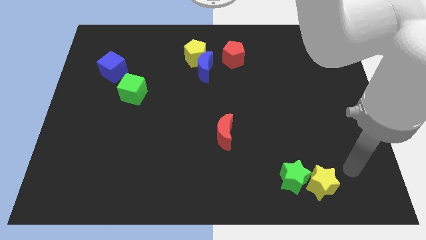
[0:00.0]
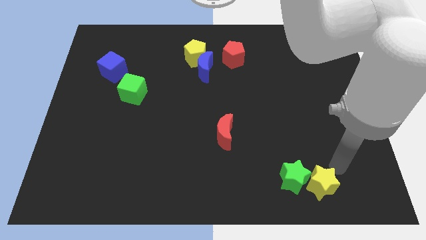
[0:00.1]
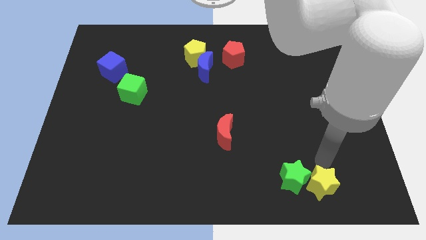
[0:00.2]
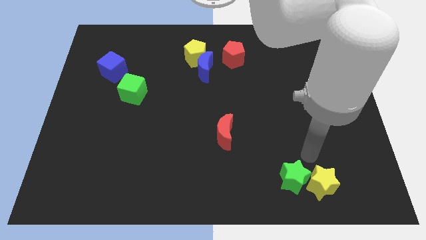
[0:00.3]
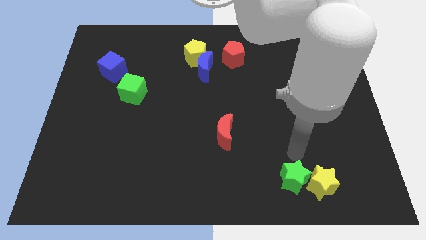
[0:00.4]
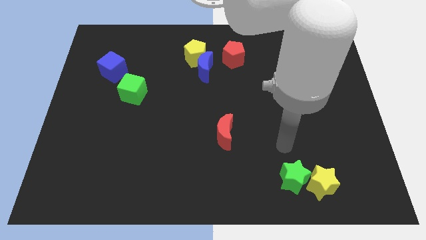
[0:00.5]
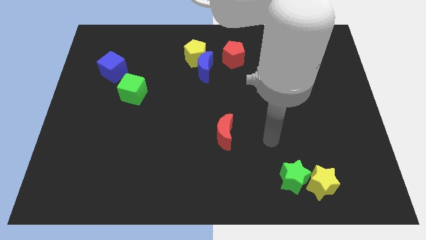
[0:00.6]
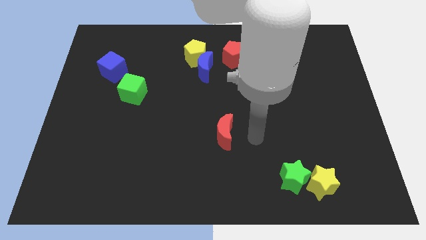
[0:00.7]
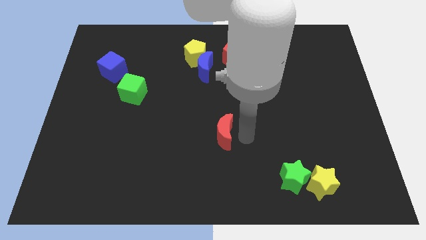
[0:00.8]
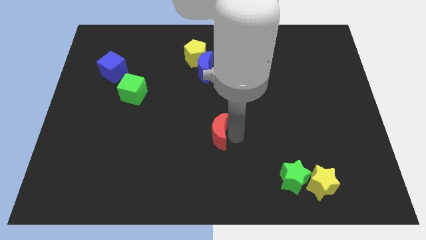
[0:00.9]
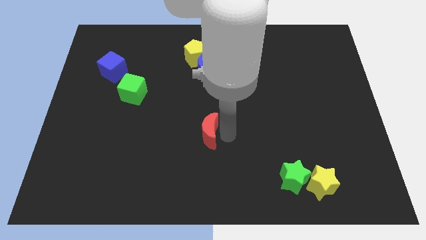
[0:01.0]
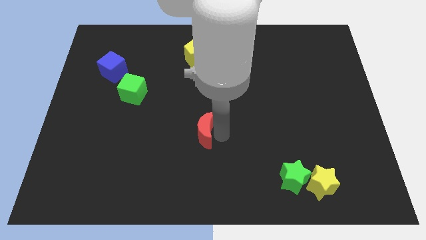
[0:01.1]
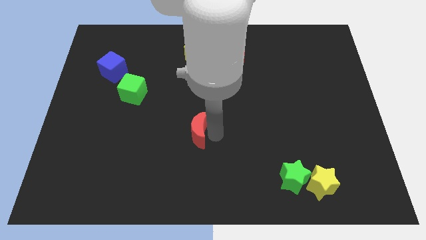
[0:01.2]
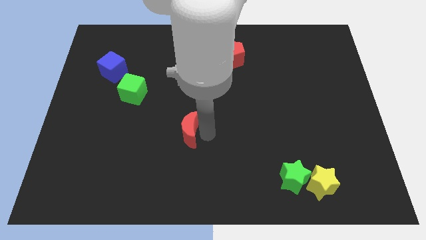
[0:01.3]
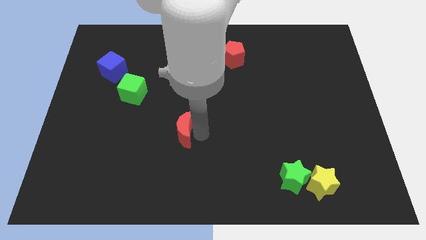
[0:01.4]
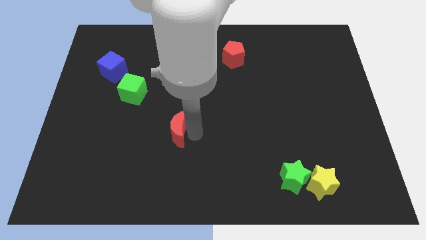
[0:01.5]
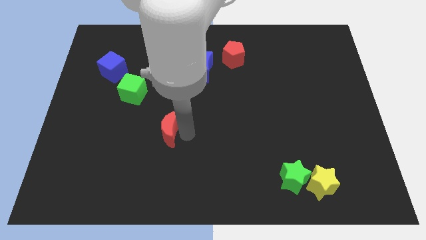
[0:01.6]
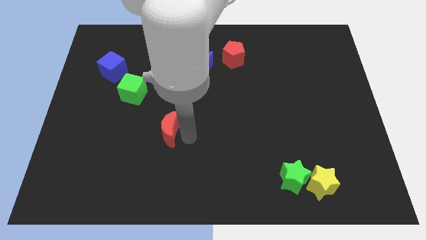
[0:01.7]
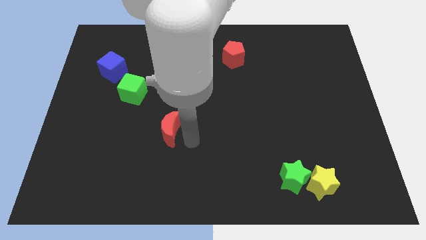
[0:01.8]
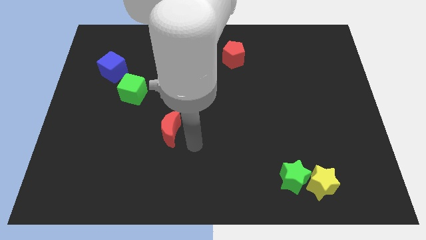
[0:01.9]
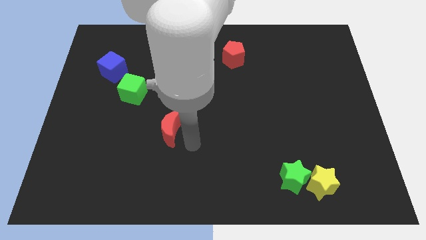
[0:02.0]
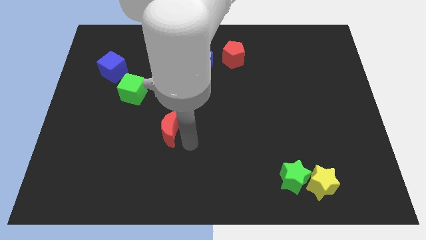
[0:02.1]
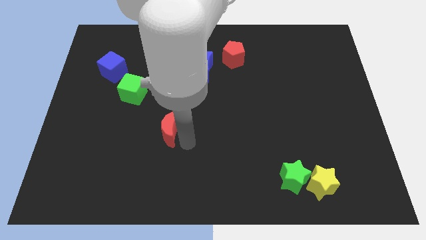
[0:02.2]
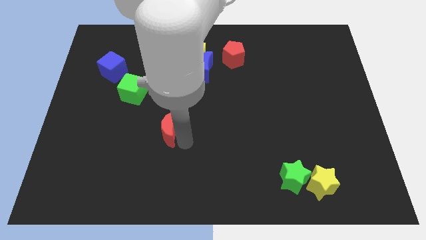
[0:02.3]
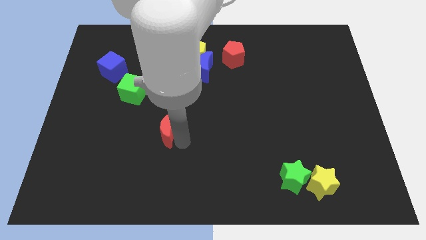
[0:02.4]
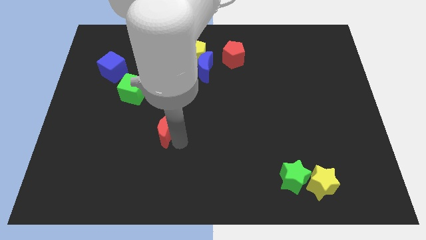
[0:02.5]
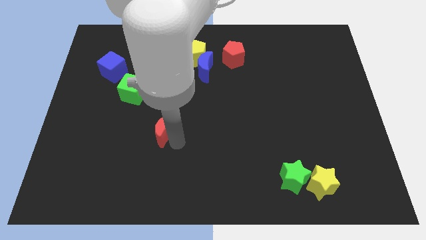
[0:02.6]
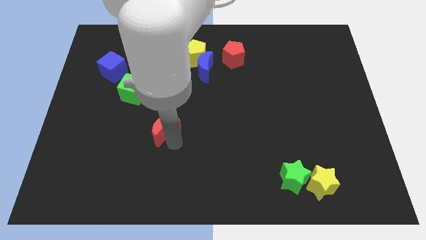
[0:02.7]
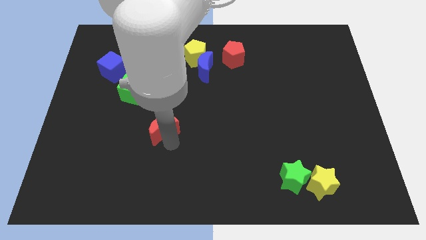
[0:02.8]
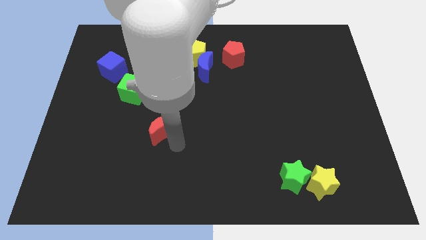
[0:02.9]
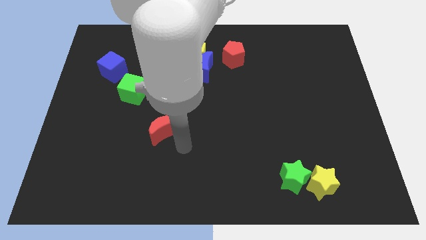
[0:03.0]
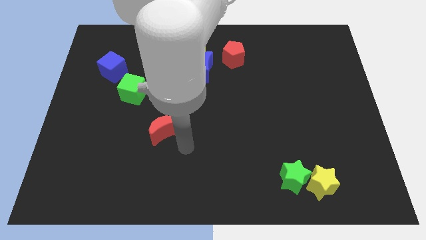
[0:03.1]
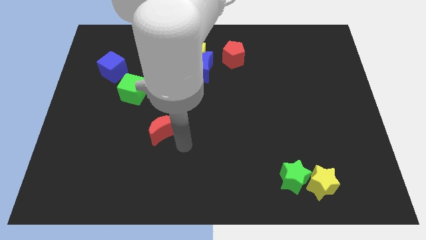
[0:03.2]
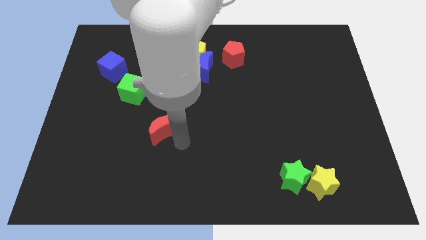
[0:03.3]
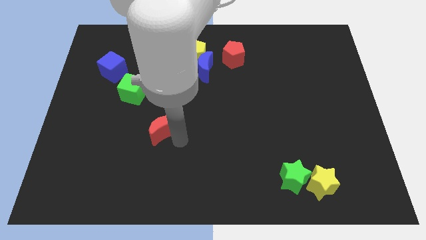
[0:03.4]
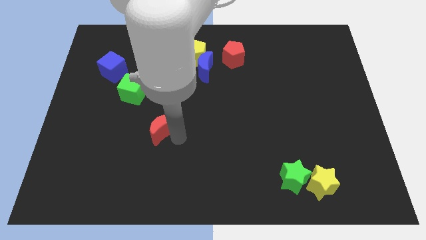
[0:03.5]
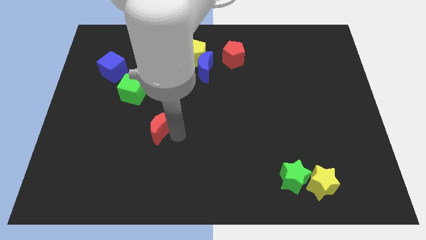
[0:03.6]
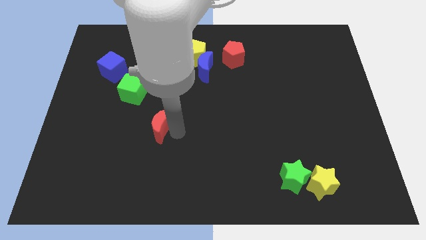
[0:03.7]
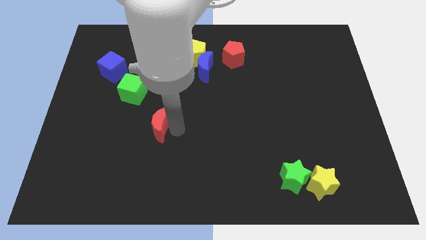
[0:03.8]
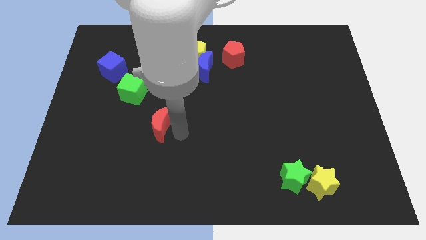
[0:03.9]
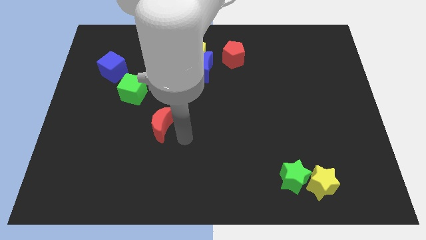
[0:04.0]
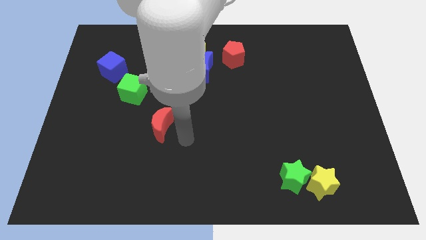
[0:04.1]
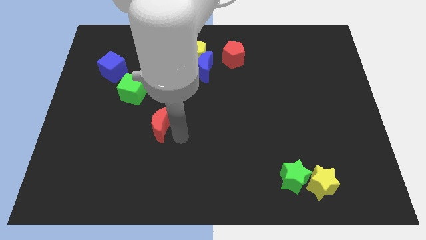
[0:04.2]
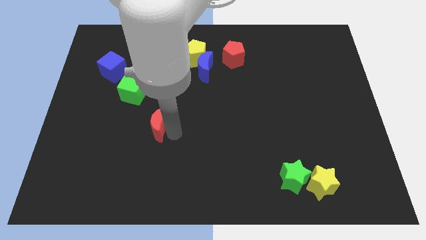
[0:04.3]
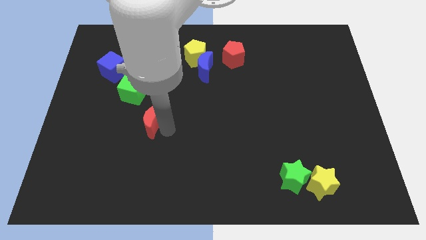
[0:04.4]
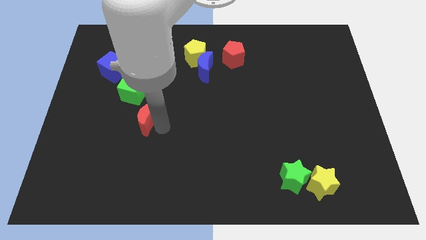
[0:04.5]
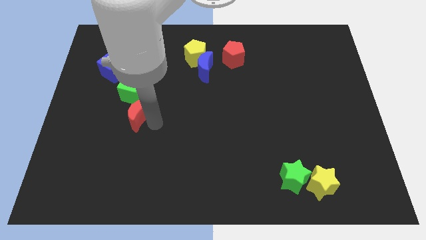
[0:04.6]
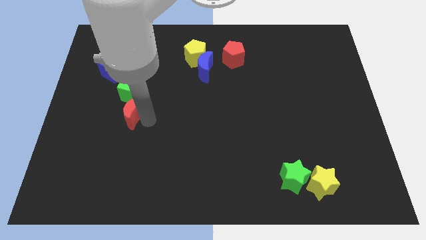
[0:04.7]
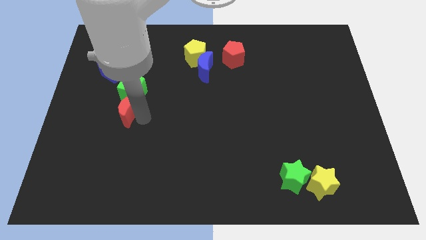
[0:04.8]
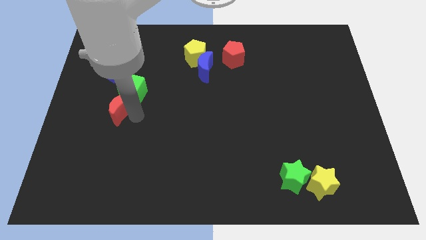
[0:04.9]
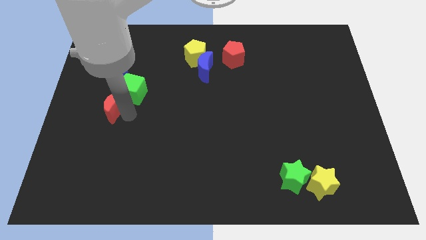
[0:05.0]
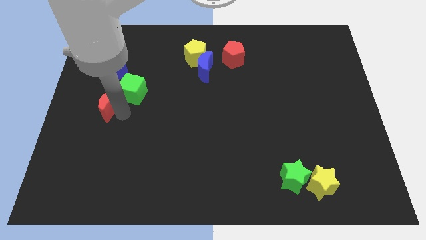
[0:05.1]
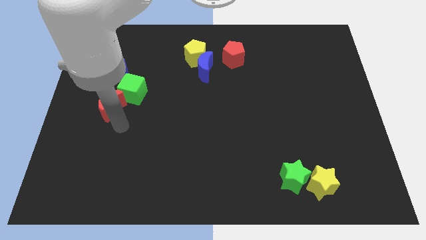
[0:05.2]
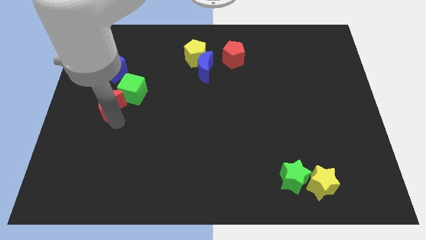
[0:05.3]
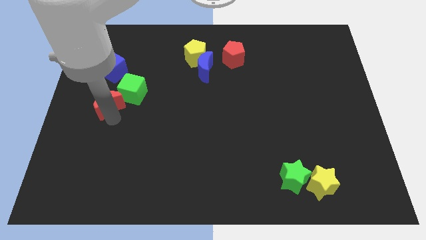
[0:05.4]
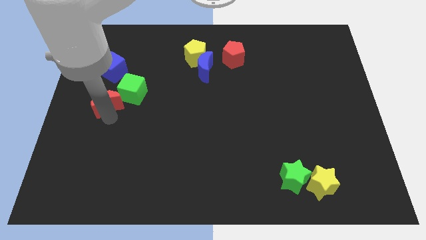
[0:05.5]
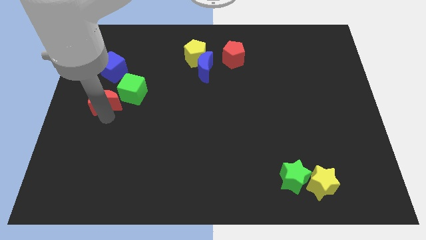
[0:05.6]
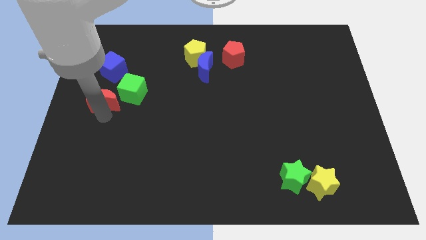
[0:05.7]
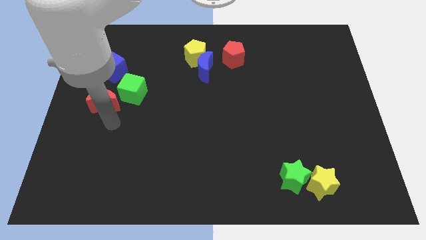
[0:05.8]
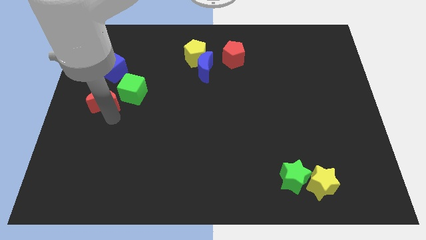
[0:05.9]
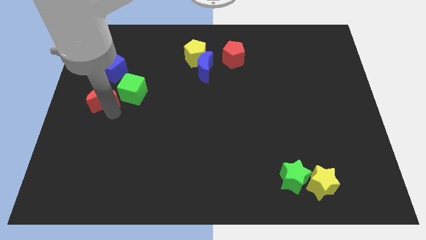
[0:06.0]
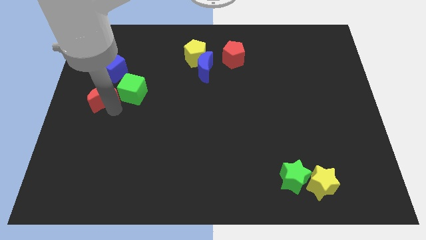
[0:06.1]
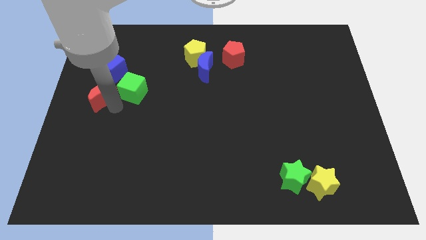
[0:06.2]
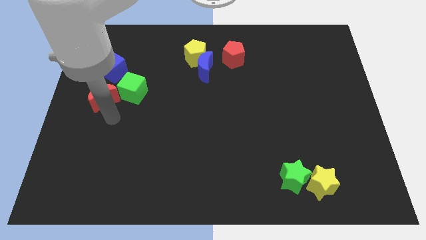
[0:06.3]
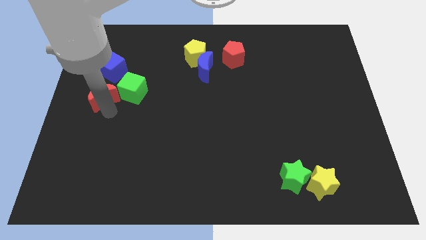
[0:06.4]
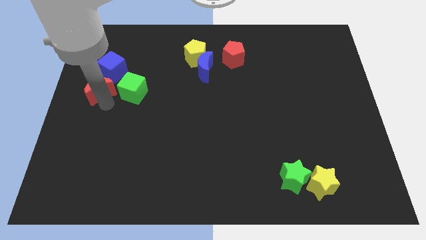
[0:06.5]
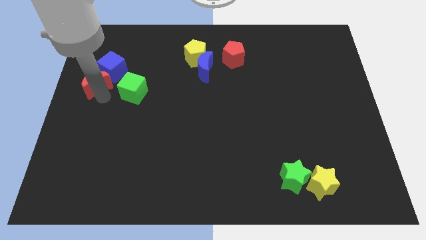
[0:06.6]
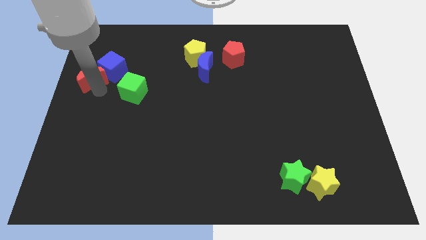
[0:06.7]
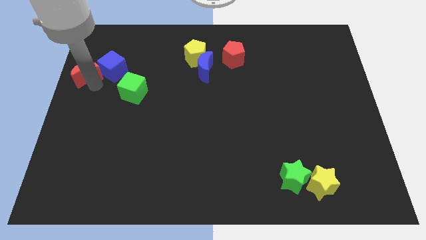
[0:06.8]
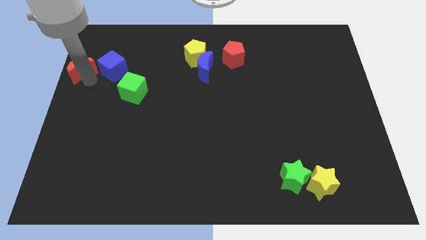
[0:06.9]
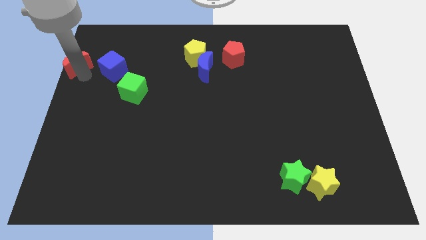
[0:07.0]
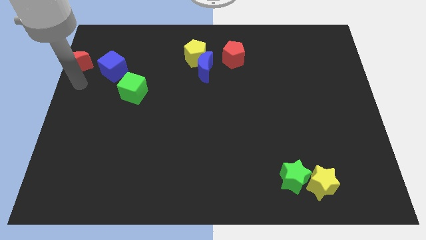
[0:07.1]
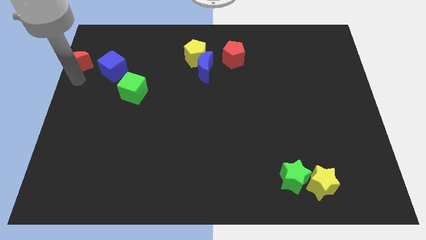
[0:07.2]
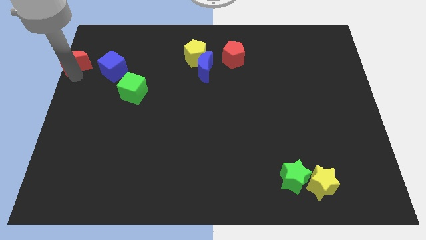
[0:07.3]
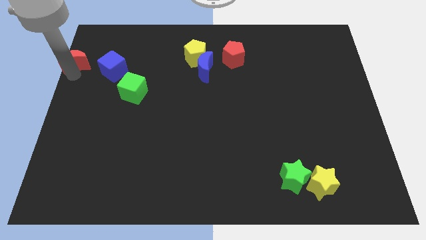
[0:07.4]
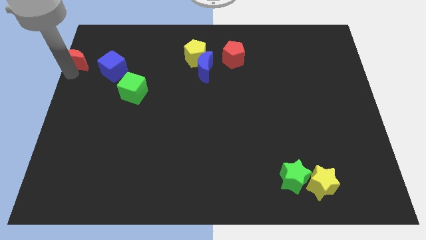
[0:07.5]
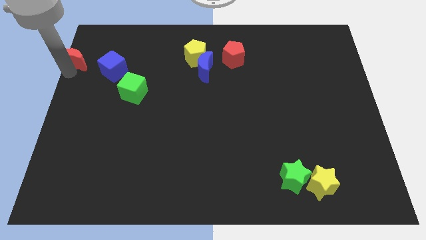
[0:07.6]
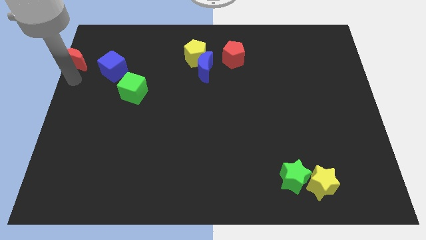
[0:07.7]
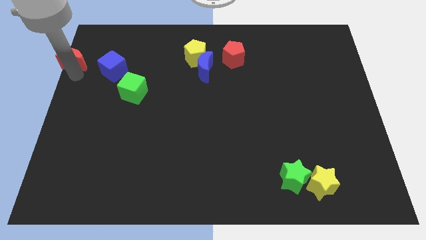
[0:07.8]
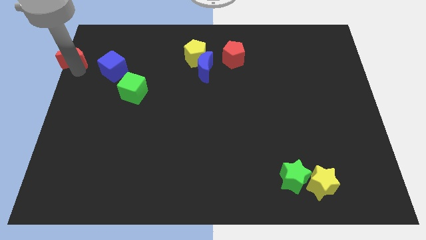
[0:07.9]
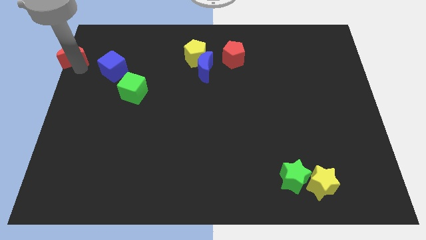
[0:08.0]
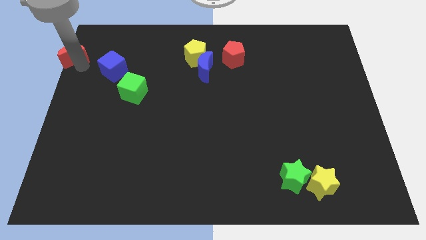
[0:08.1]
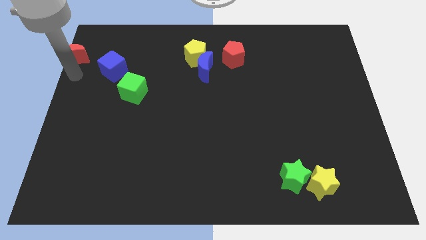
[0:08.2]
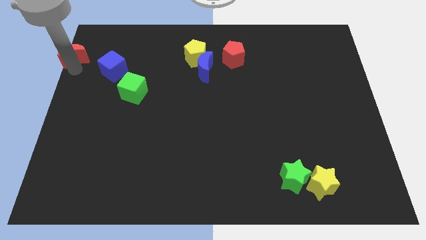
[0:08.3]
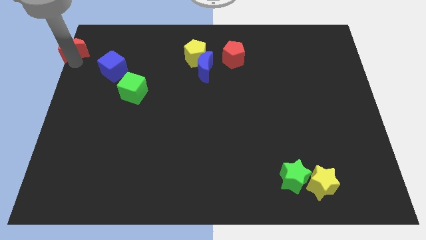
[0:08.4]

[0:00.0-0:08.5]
put the red moon to the top left corner
